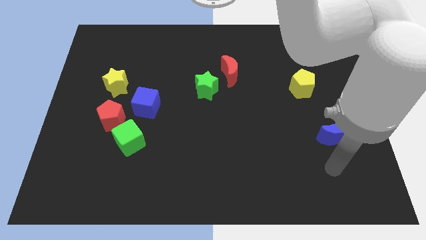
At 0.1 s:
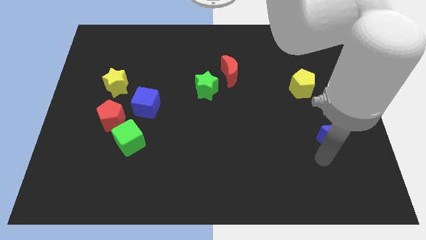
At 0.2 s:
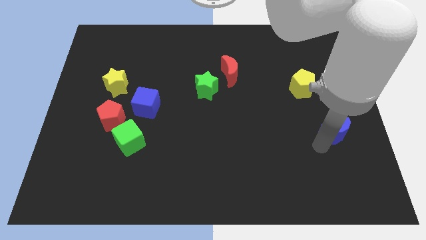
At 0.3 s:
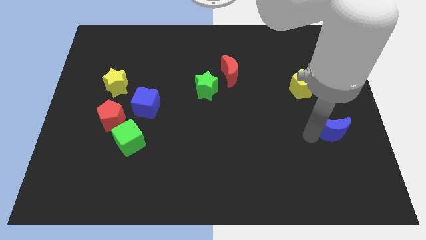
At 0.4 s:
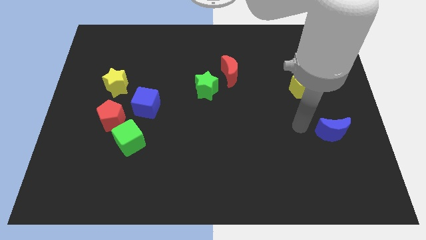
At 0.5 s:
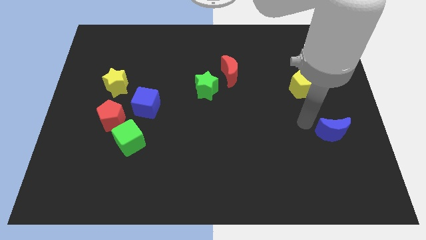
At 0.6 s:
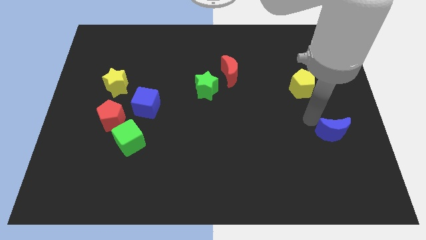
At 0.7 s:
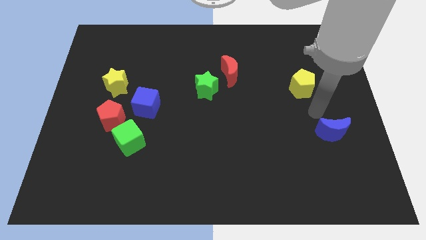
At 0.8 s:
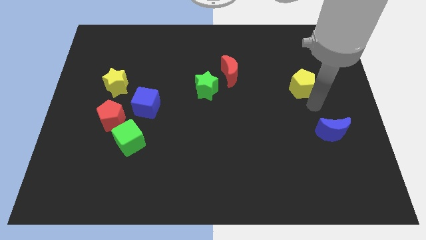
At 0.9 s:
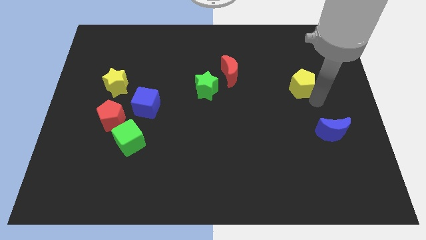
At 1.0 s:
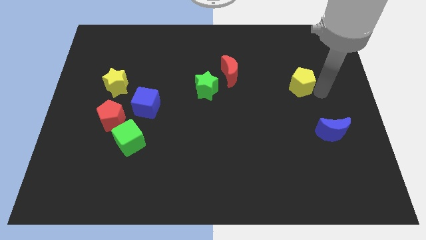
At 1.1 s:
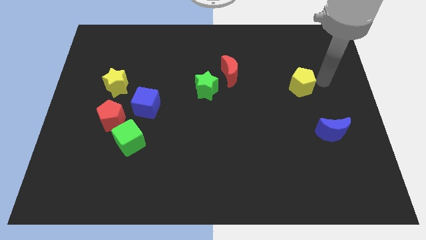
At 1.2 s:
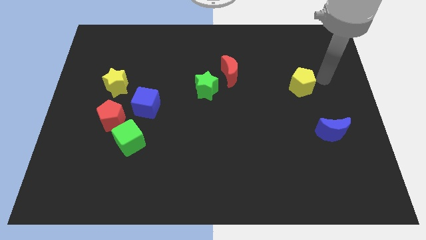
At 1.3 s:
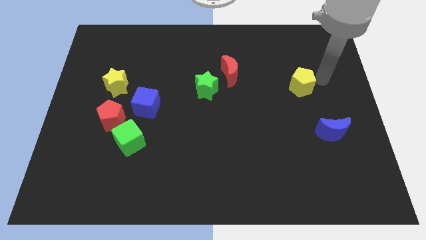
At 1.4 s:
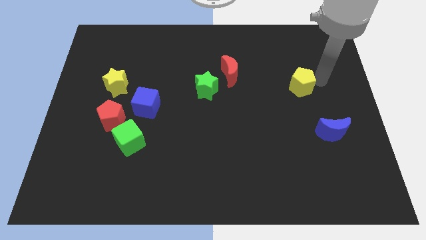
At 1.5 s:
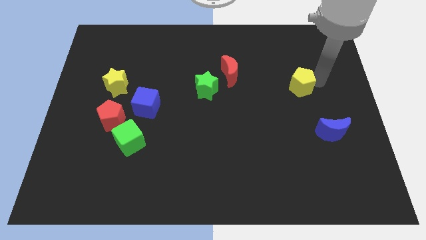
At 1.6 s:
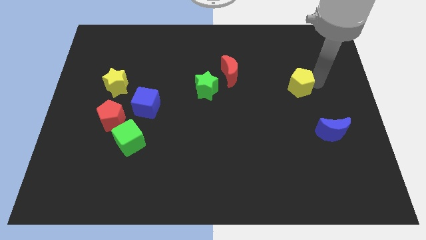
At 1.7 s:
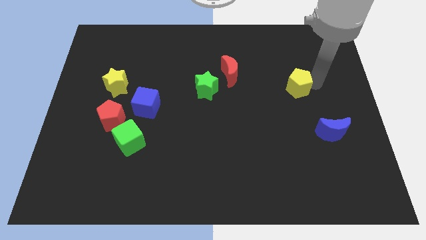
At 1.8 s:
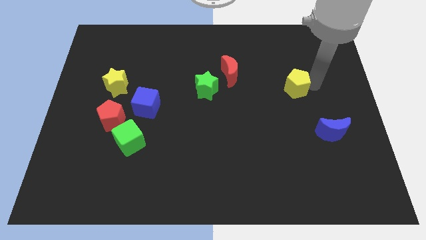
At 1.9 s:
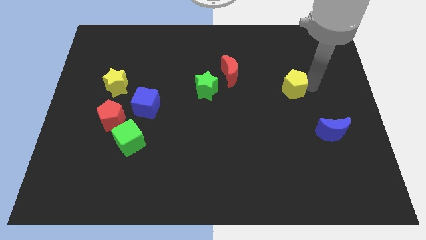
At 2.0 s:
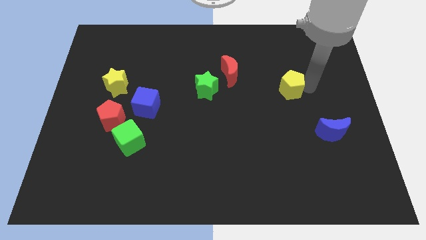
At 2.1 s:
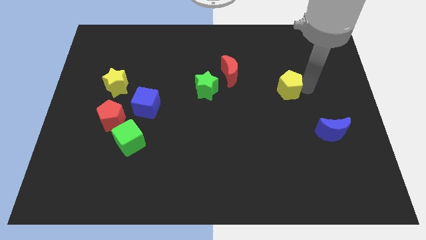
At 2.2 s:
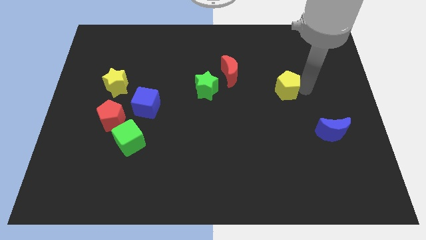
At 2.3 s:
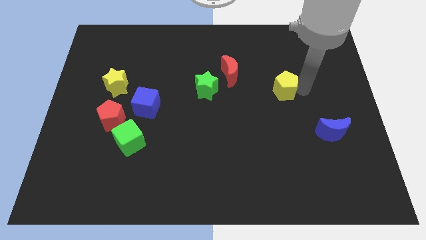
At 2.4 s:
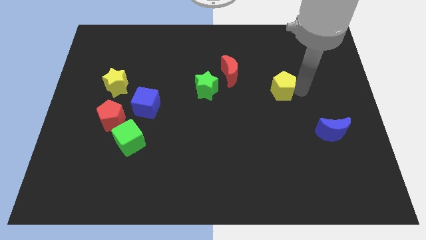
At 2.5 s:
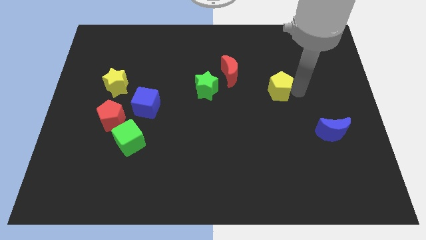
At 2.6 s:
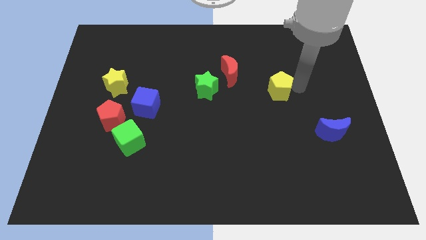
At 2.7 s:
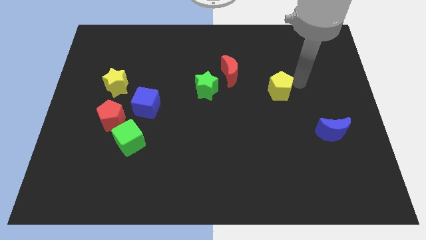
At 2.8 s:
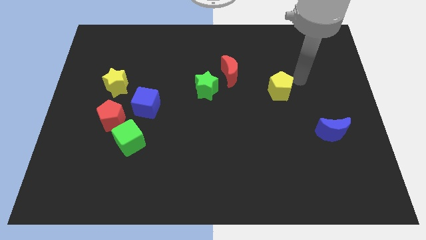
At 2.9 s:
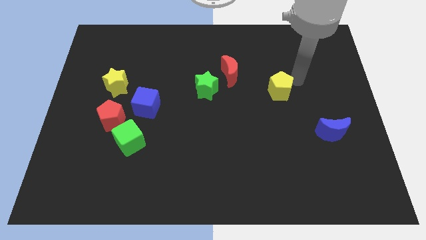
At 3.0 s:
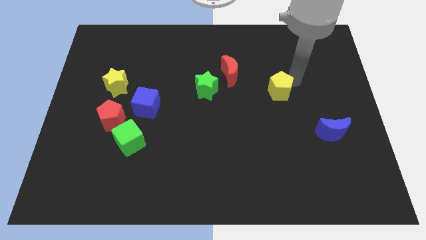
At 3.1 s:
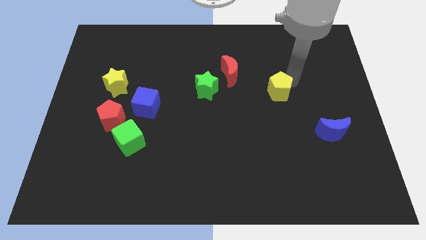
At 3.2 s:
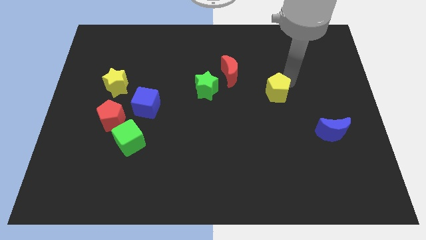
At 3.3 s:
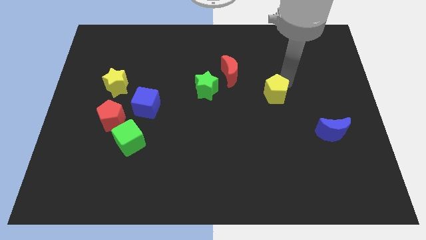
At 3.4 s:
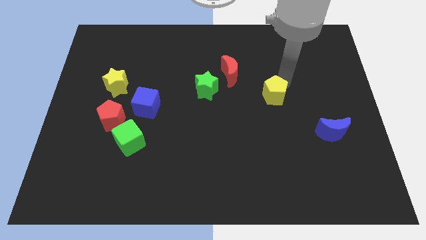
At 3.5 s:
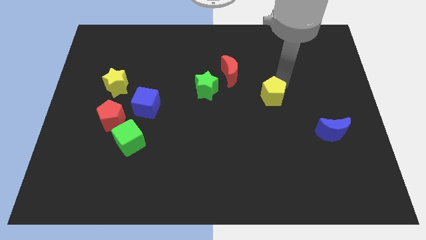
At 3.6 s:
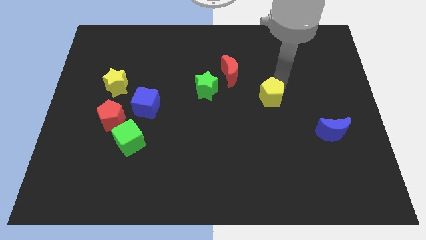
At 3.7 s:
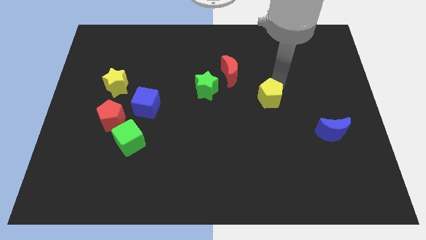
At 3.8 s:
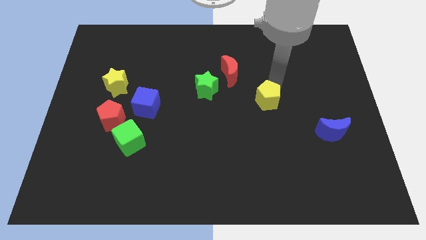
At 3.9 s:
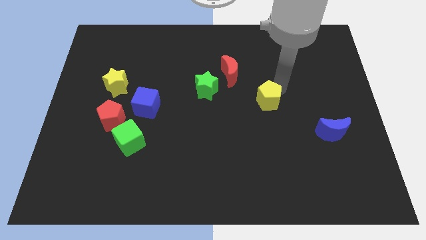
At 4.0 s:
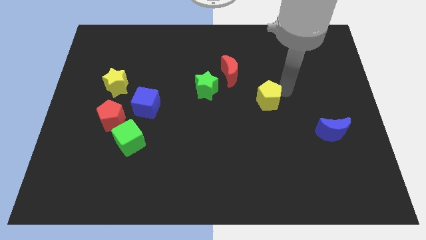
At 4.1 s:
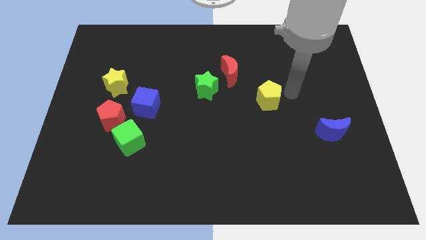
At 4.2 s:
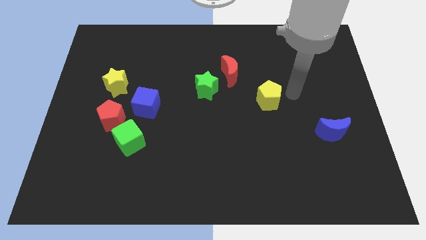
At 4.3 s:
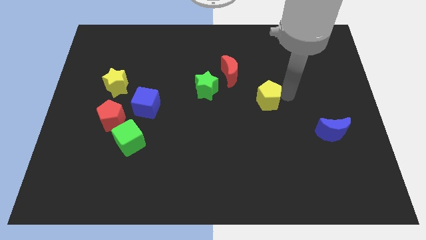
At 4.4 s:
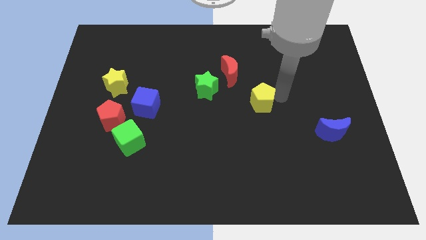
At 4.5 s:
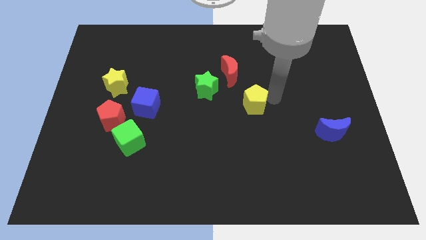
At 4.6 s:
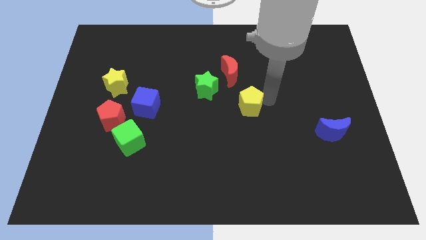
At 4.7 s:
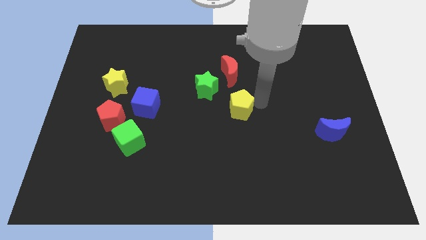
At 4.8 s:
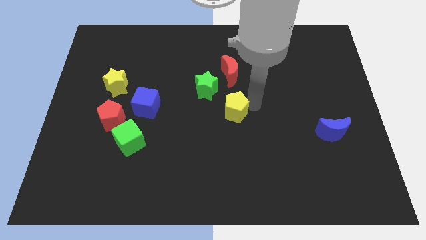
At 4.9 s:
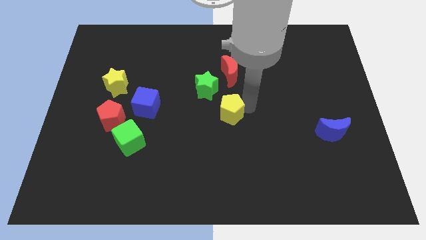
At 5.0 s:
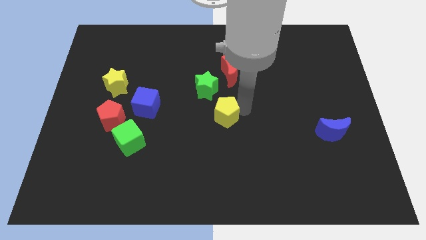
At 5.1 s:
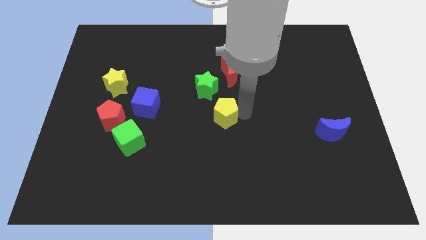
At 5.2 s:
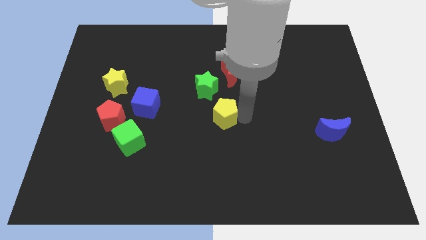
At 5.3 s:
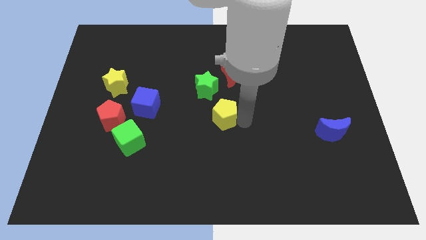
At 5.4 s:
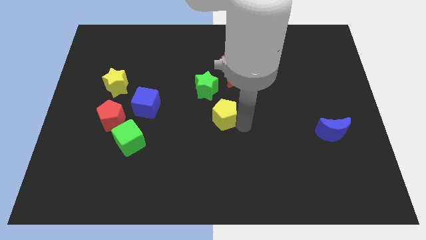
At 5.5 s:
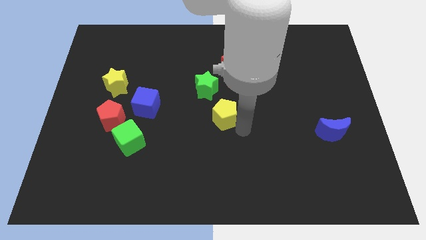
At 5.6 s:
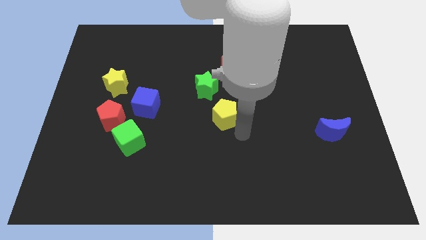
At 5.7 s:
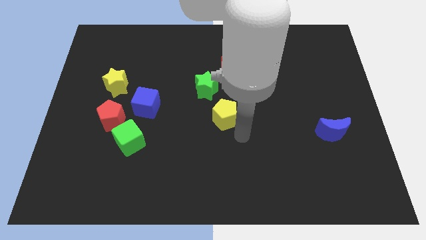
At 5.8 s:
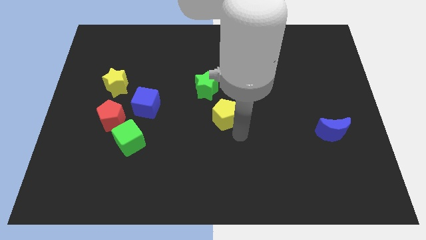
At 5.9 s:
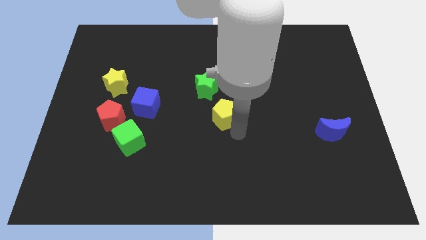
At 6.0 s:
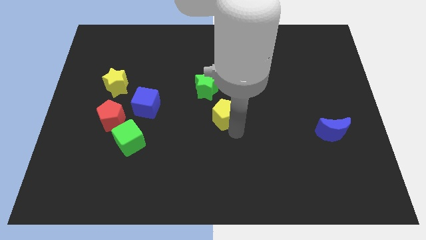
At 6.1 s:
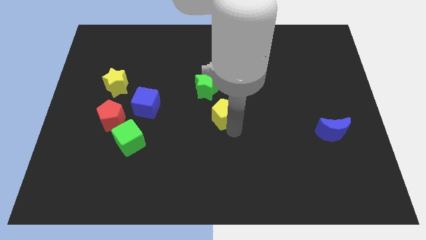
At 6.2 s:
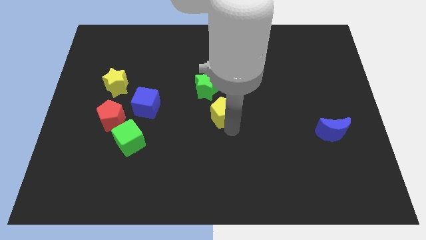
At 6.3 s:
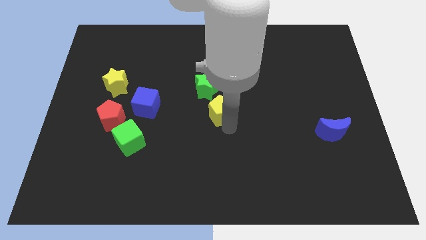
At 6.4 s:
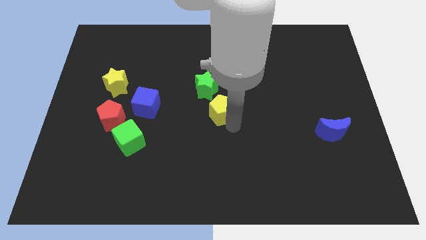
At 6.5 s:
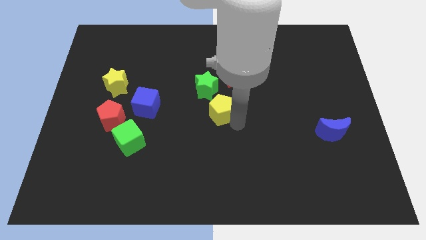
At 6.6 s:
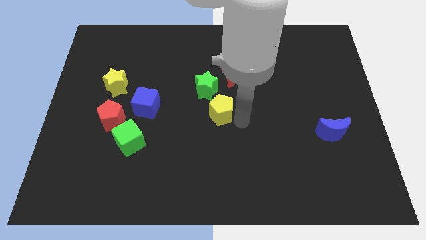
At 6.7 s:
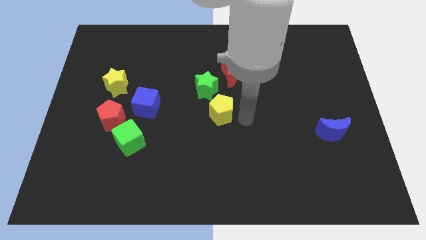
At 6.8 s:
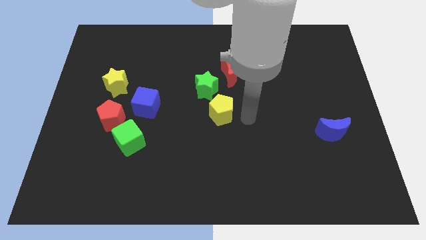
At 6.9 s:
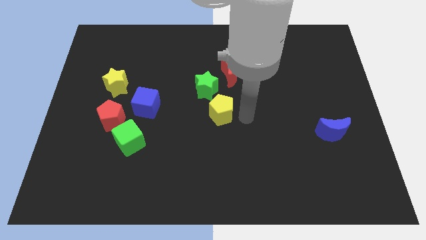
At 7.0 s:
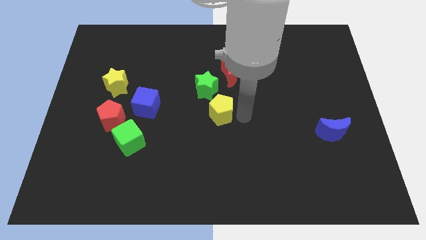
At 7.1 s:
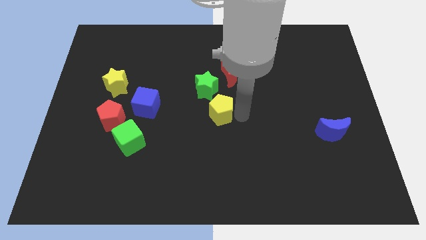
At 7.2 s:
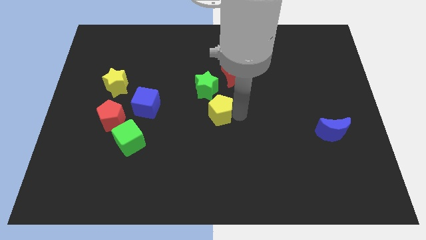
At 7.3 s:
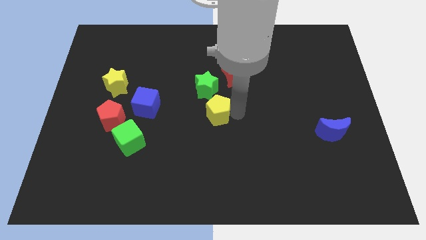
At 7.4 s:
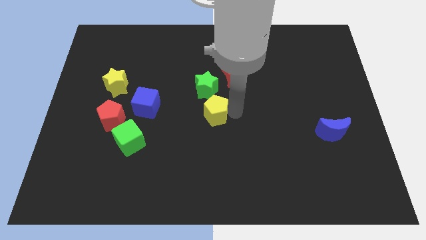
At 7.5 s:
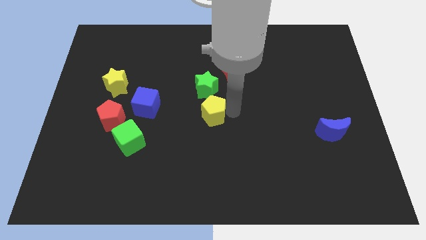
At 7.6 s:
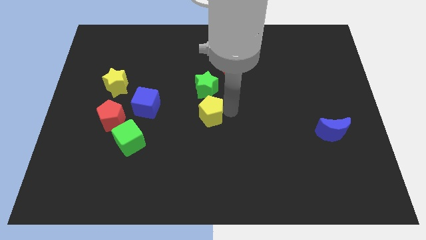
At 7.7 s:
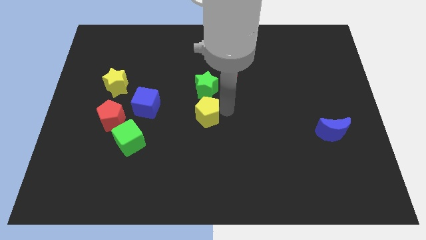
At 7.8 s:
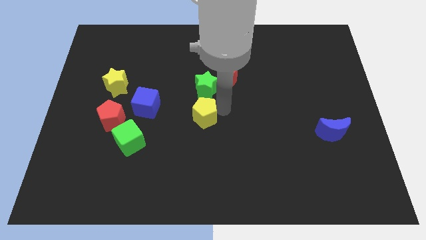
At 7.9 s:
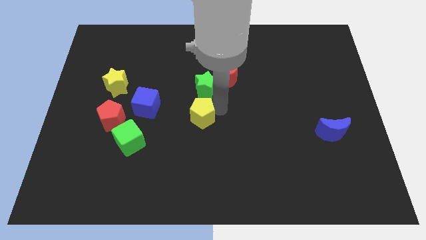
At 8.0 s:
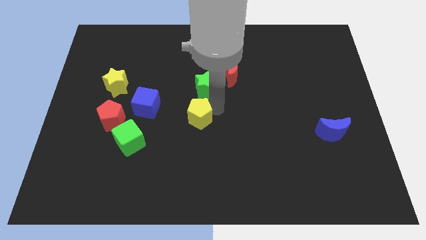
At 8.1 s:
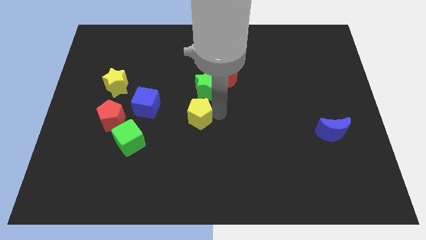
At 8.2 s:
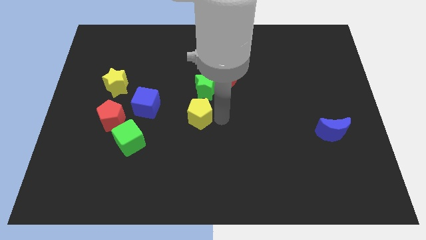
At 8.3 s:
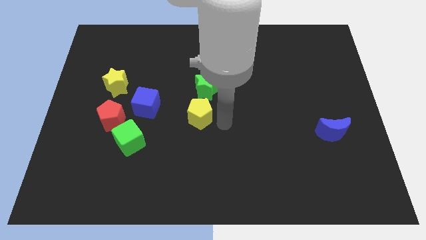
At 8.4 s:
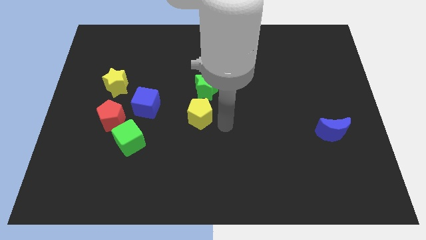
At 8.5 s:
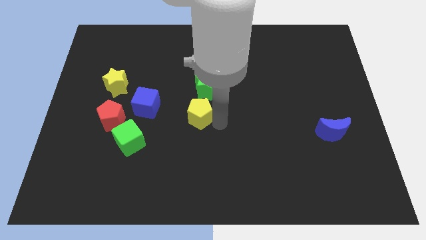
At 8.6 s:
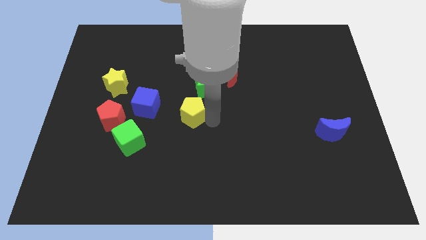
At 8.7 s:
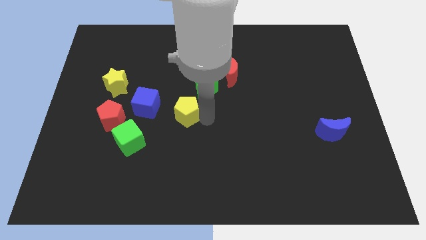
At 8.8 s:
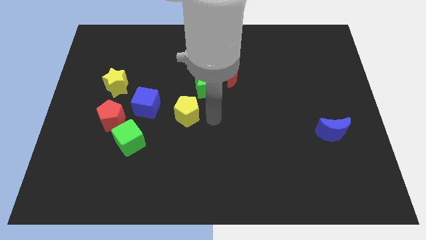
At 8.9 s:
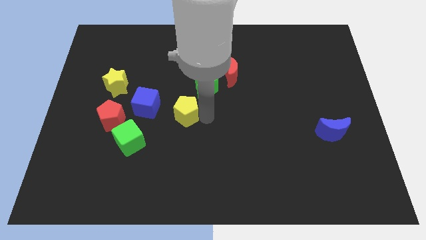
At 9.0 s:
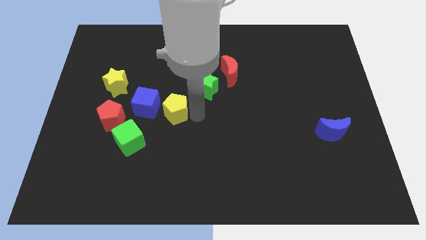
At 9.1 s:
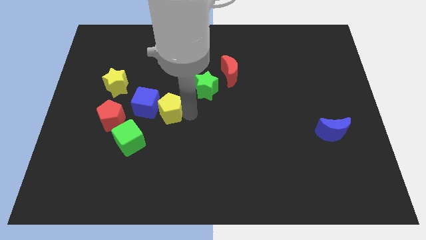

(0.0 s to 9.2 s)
push the yellow pentagon next to the blue cube
